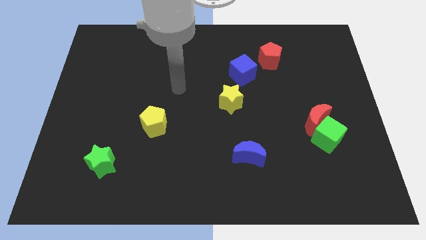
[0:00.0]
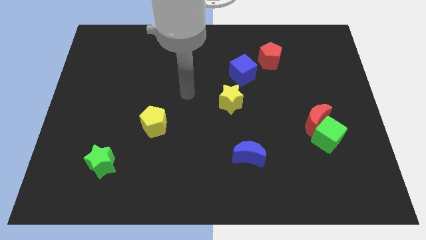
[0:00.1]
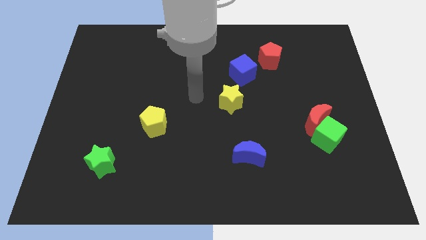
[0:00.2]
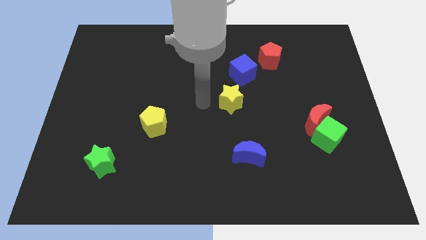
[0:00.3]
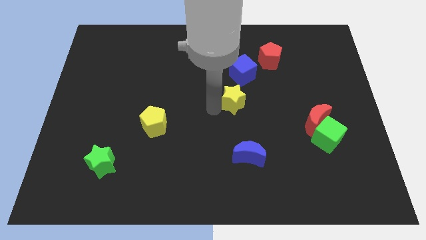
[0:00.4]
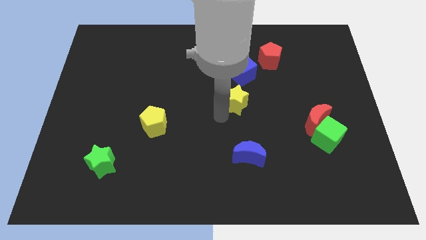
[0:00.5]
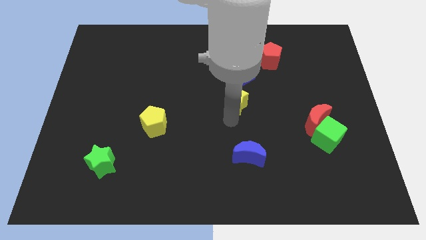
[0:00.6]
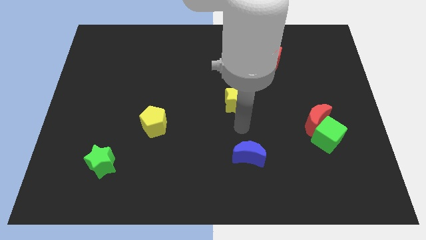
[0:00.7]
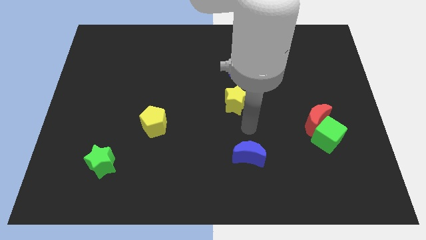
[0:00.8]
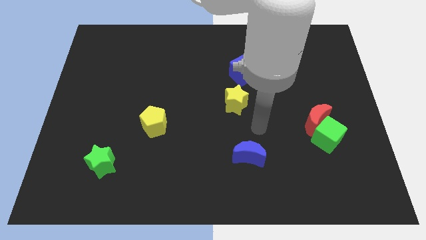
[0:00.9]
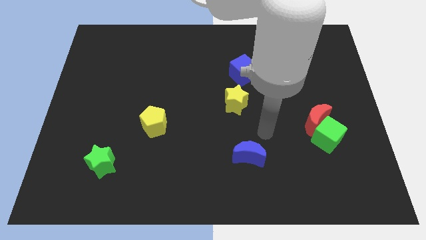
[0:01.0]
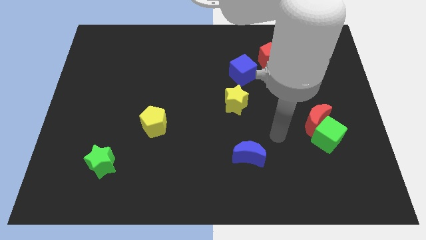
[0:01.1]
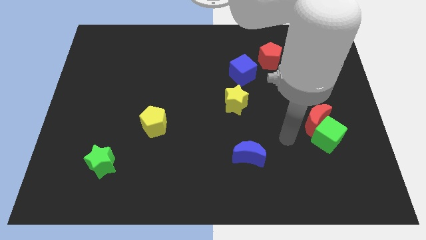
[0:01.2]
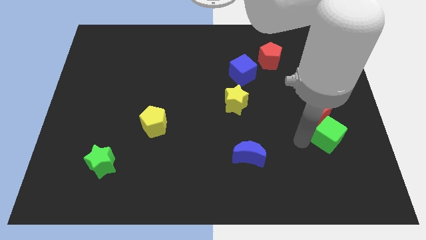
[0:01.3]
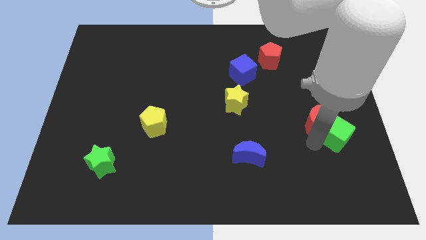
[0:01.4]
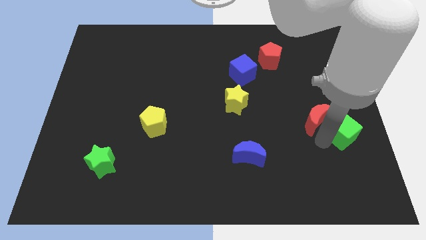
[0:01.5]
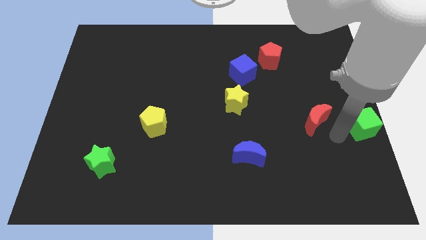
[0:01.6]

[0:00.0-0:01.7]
move the red moon away from the green cube

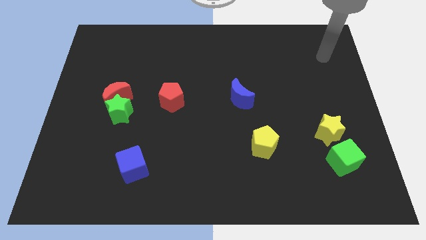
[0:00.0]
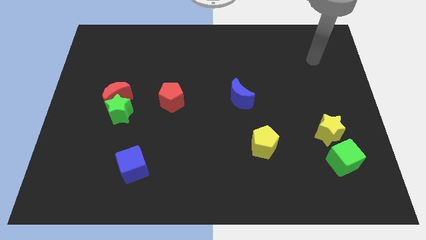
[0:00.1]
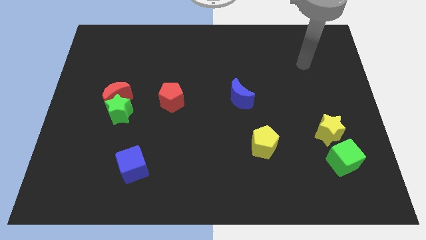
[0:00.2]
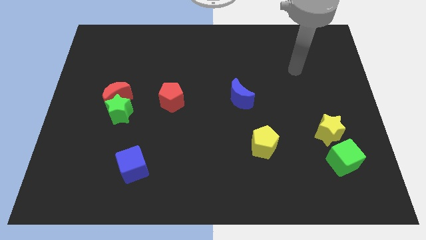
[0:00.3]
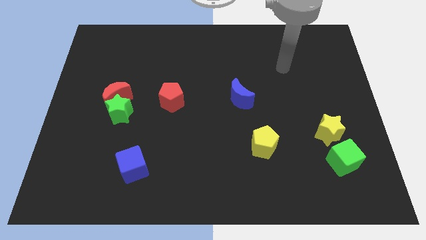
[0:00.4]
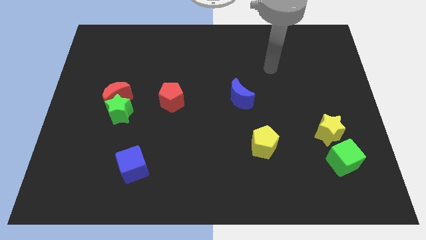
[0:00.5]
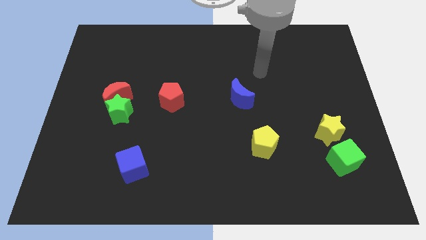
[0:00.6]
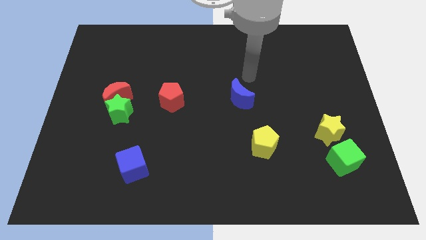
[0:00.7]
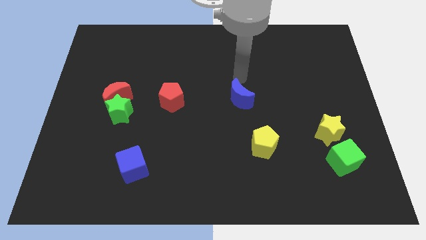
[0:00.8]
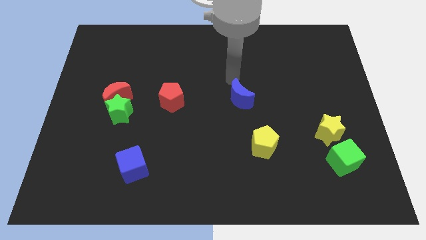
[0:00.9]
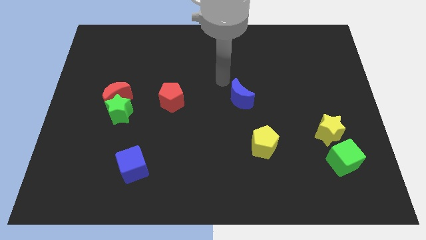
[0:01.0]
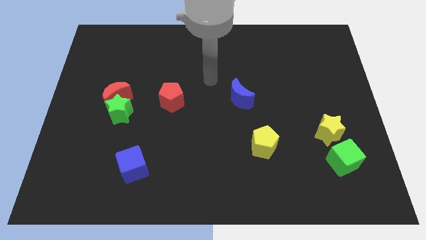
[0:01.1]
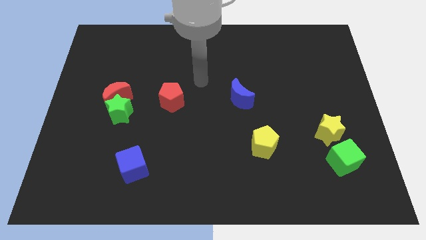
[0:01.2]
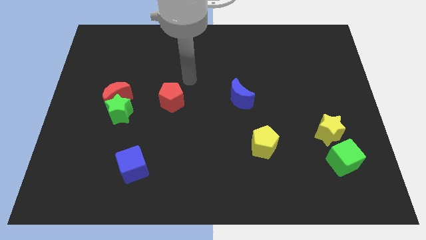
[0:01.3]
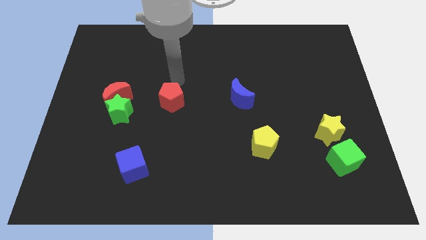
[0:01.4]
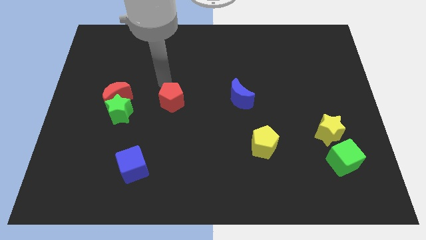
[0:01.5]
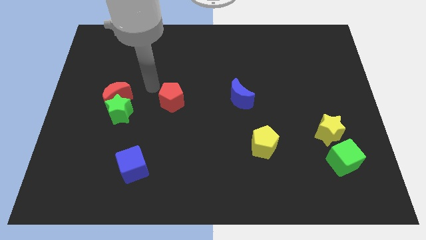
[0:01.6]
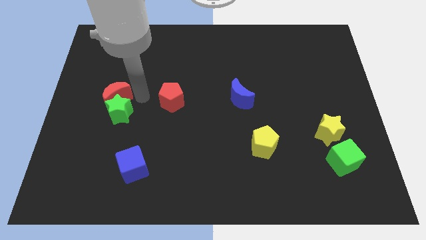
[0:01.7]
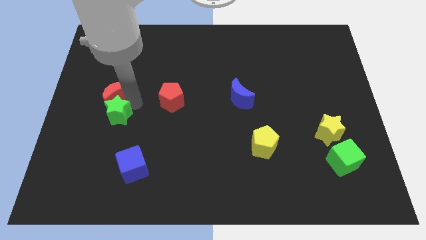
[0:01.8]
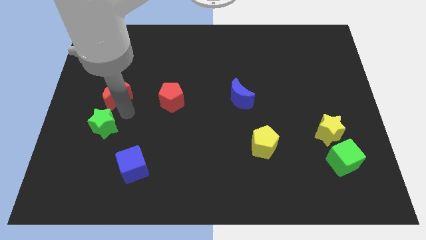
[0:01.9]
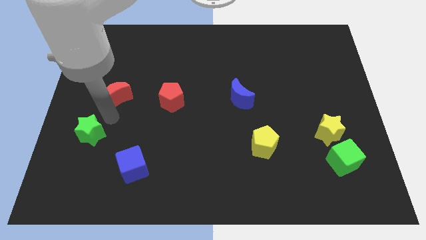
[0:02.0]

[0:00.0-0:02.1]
move the red moon away from the green star

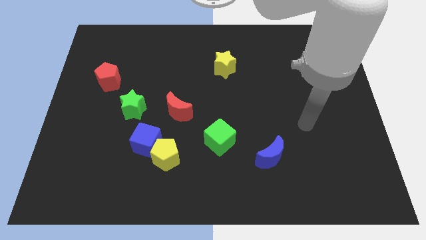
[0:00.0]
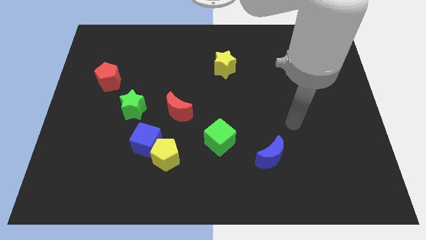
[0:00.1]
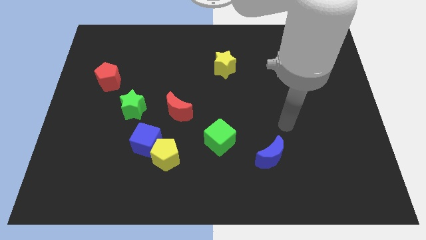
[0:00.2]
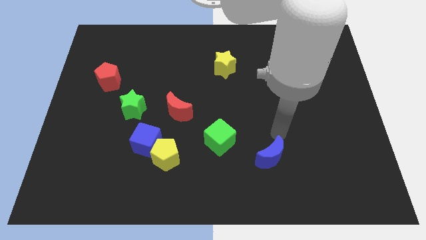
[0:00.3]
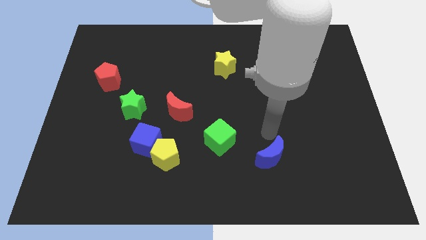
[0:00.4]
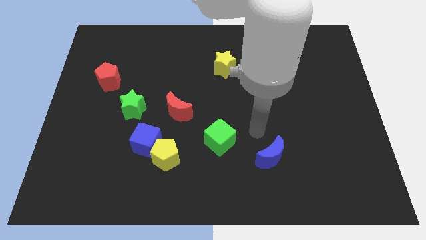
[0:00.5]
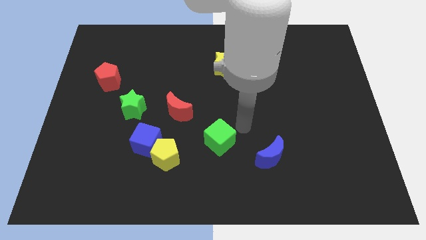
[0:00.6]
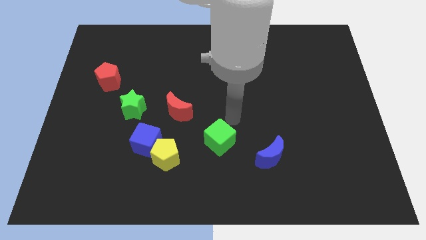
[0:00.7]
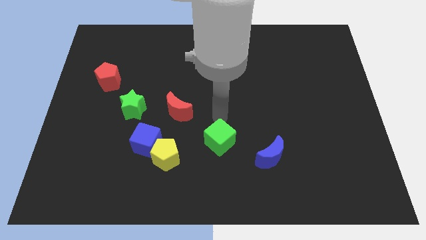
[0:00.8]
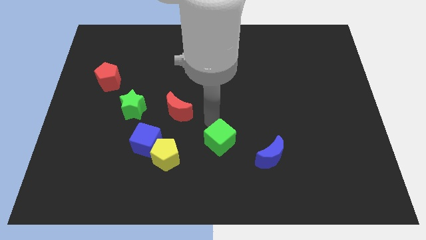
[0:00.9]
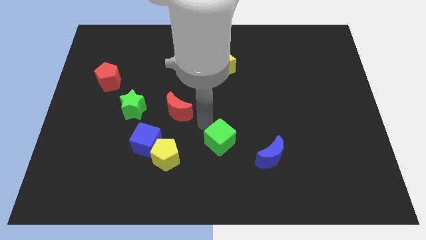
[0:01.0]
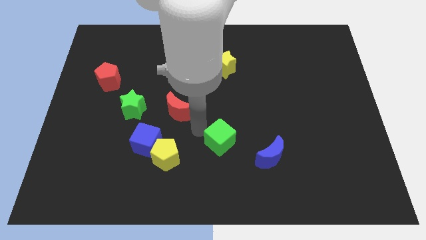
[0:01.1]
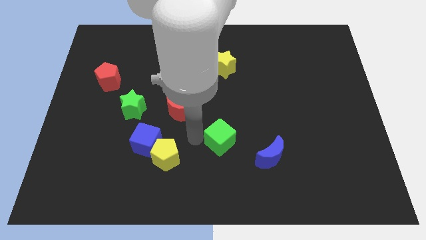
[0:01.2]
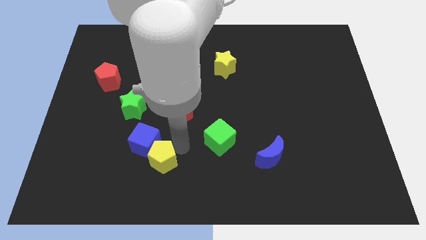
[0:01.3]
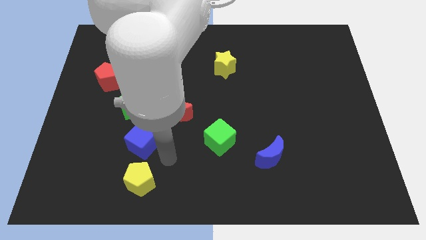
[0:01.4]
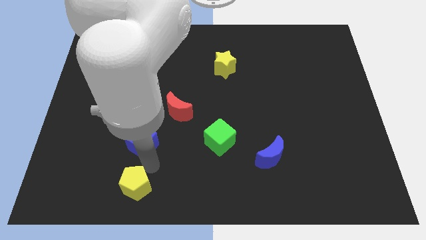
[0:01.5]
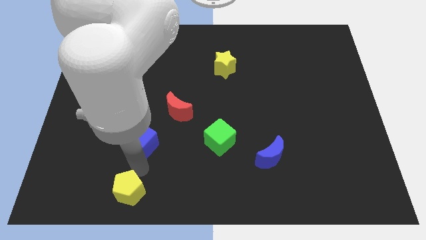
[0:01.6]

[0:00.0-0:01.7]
move the blue cube away from the yellow pentagon

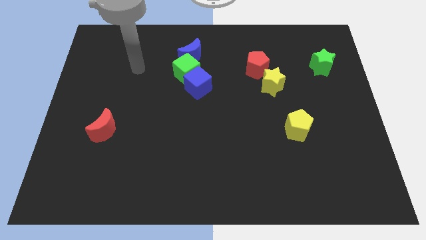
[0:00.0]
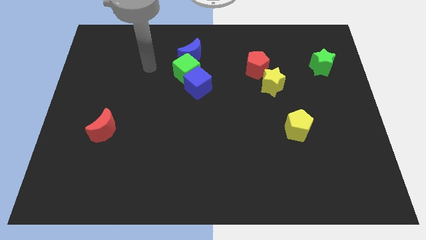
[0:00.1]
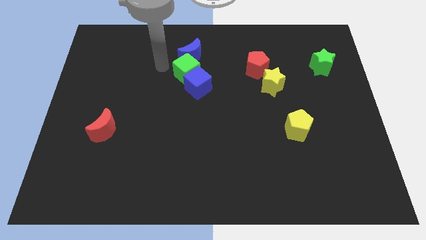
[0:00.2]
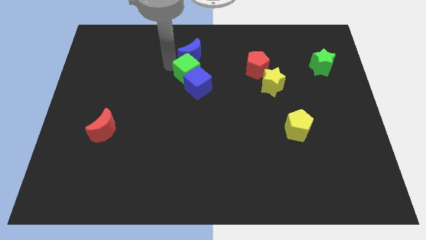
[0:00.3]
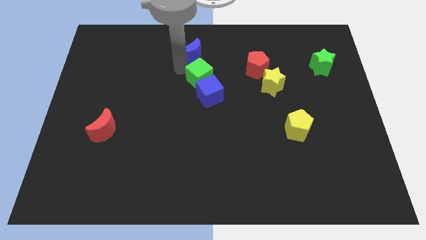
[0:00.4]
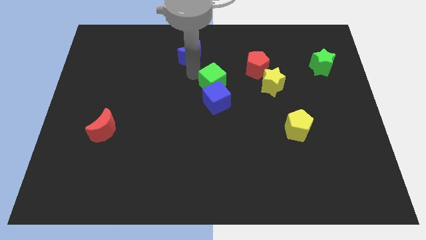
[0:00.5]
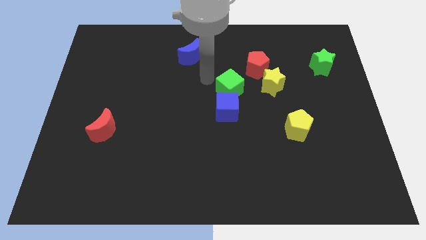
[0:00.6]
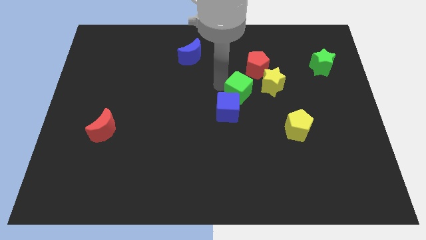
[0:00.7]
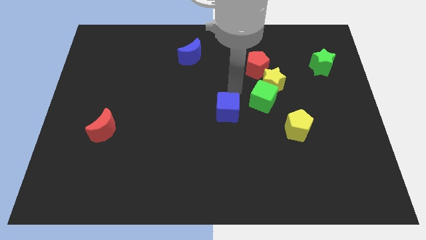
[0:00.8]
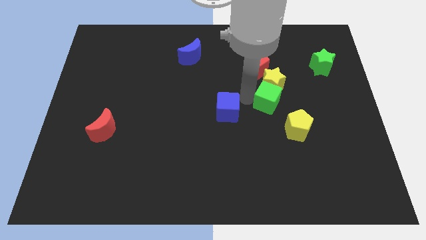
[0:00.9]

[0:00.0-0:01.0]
separate the blue cube from the green cube

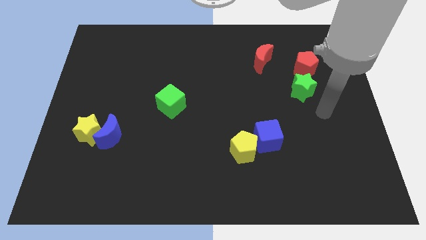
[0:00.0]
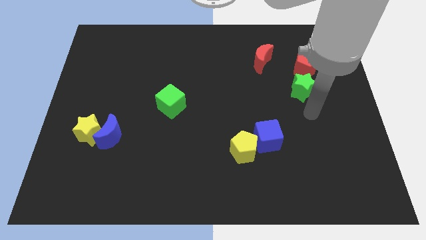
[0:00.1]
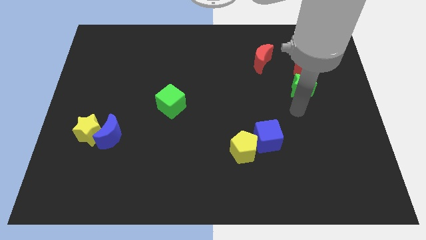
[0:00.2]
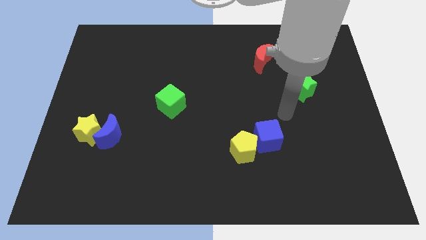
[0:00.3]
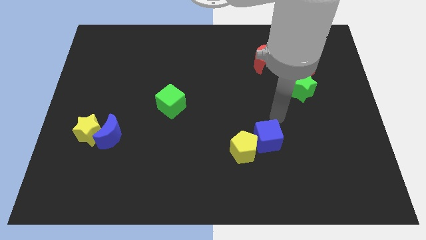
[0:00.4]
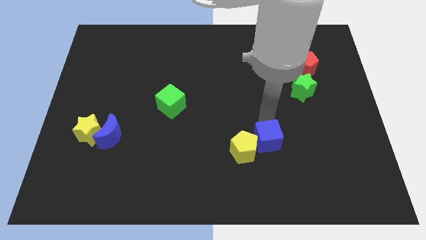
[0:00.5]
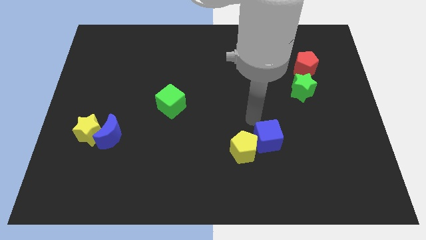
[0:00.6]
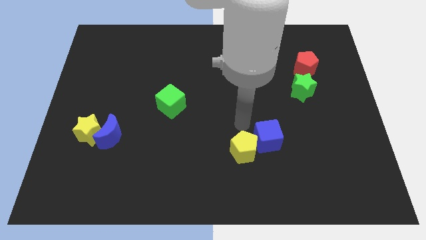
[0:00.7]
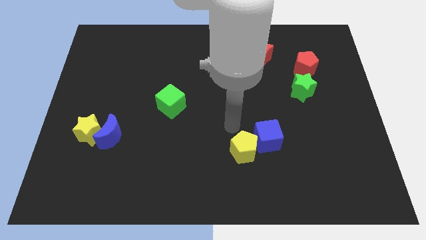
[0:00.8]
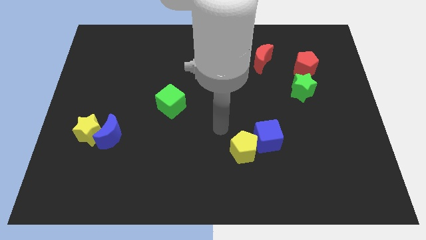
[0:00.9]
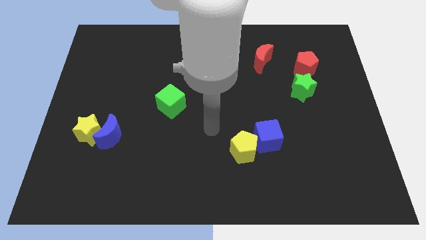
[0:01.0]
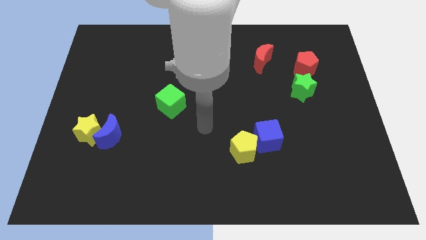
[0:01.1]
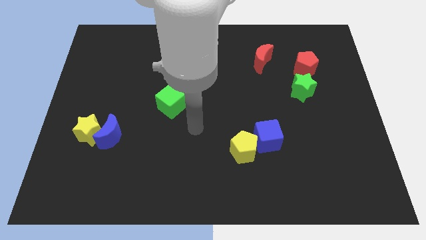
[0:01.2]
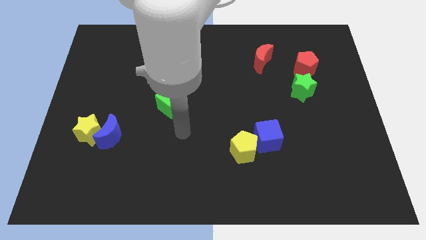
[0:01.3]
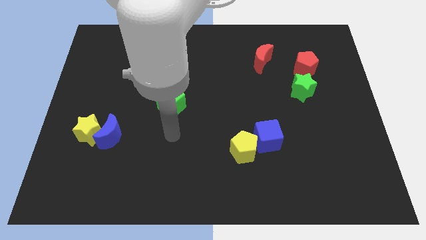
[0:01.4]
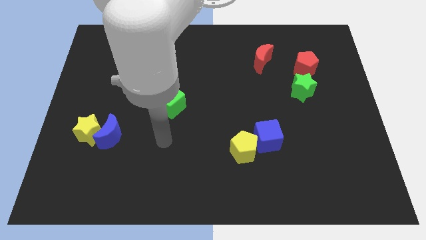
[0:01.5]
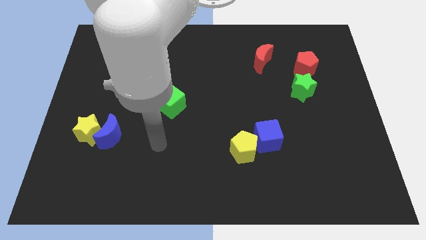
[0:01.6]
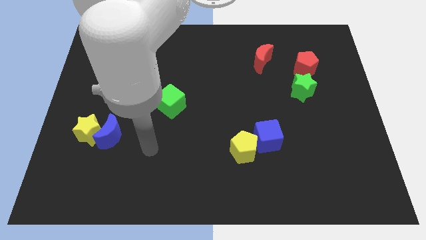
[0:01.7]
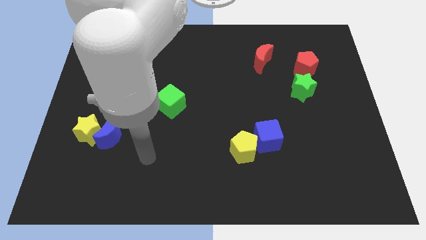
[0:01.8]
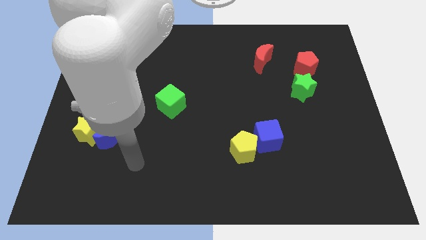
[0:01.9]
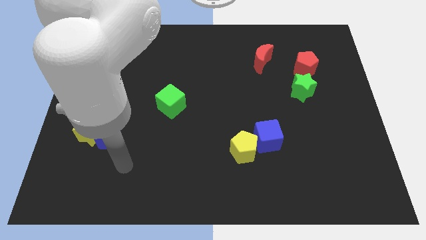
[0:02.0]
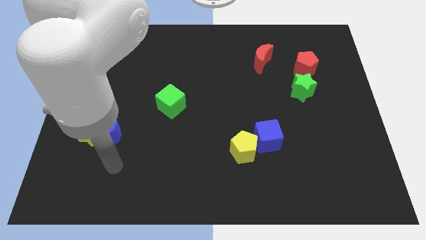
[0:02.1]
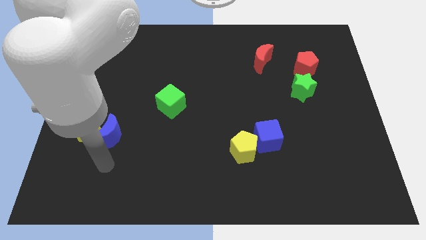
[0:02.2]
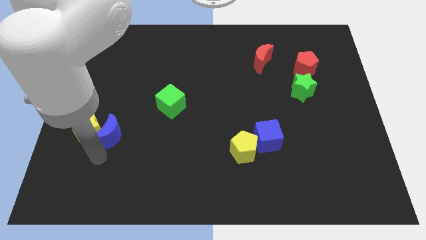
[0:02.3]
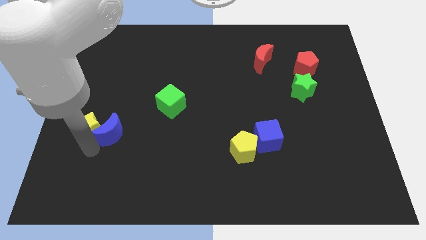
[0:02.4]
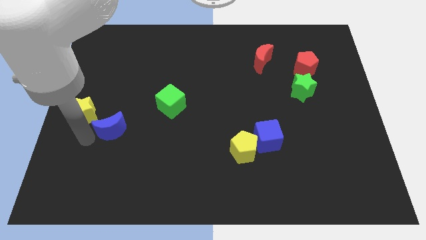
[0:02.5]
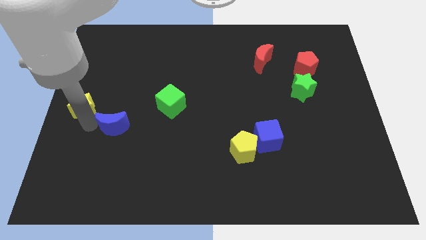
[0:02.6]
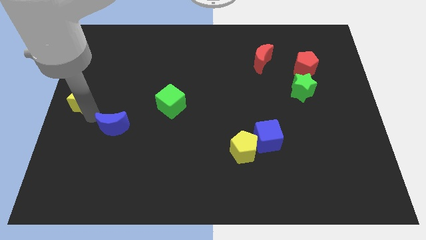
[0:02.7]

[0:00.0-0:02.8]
separate the blue moon from the yellow star

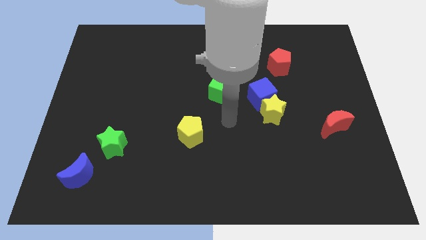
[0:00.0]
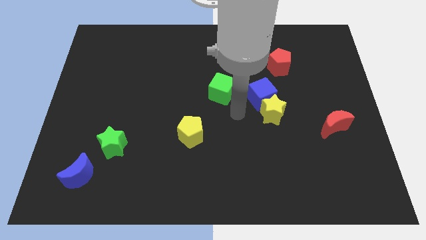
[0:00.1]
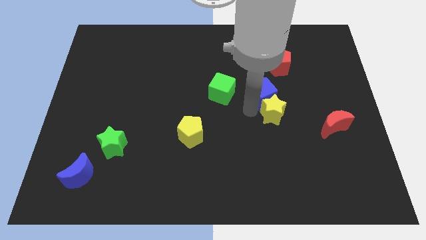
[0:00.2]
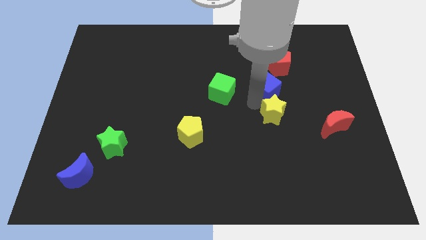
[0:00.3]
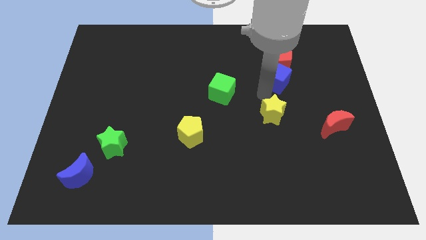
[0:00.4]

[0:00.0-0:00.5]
separate the yellow star from the blue cube
